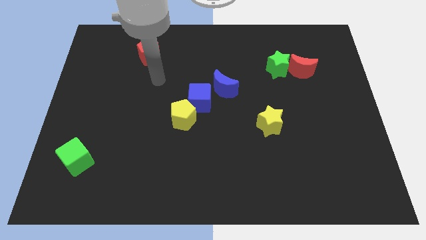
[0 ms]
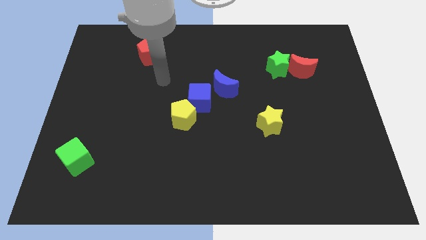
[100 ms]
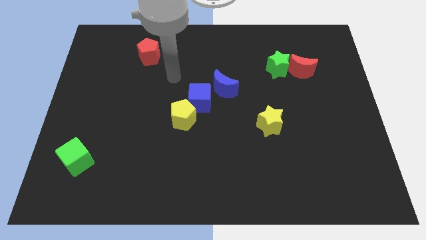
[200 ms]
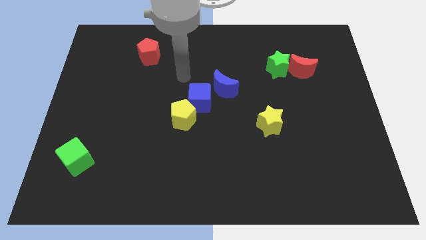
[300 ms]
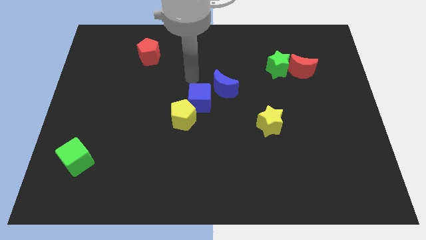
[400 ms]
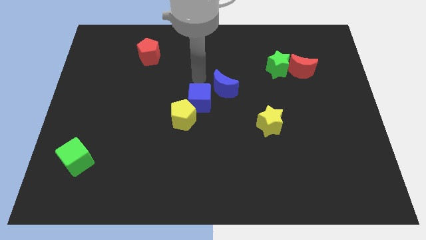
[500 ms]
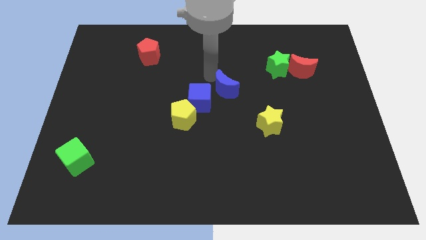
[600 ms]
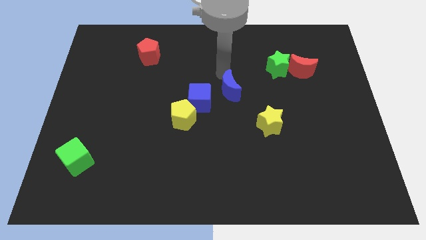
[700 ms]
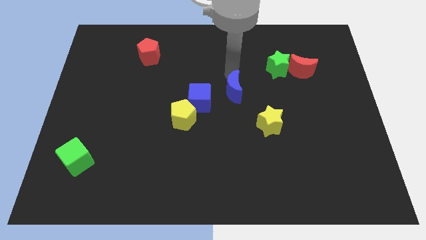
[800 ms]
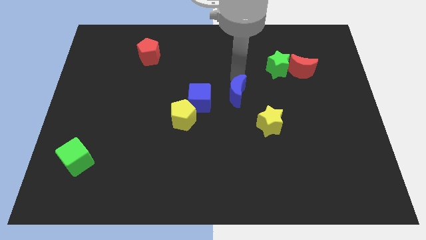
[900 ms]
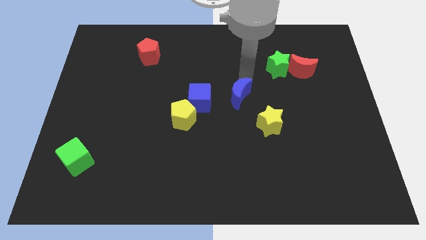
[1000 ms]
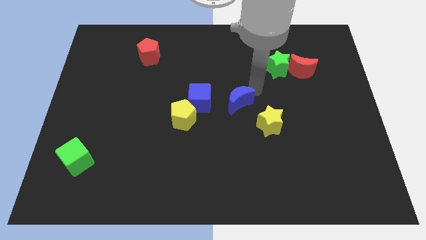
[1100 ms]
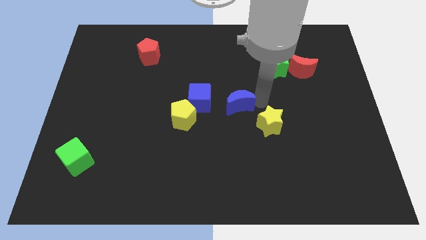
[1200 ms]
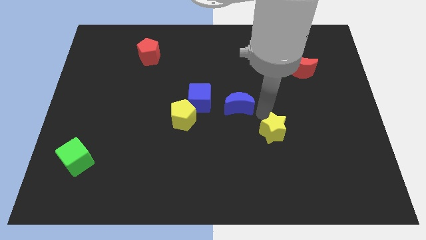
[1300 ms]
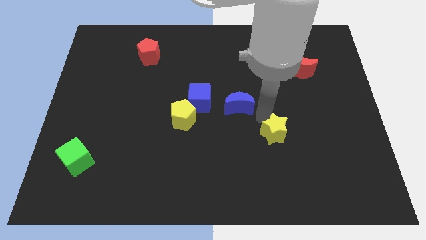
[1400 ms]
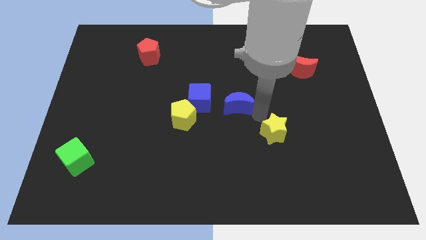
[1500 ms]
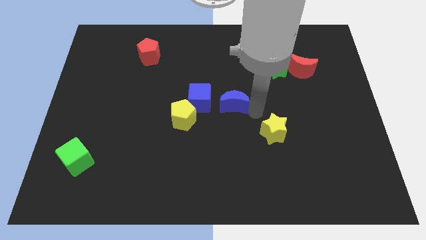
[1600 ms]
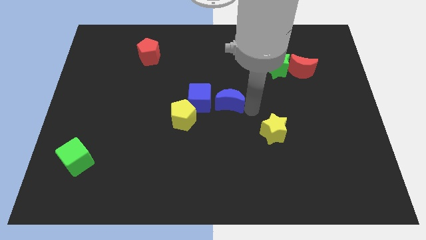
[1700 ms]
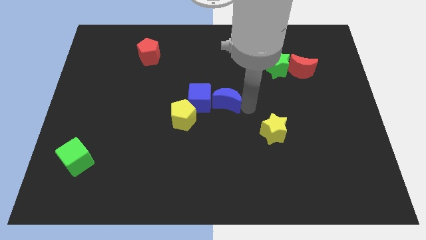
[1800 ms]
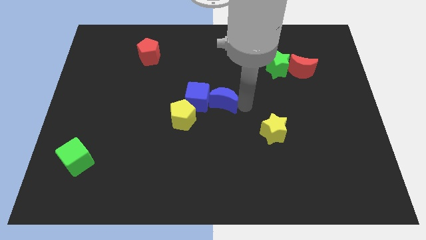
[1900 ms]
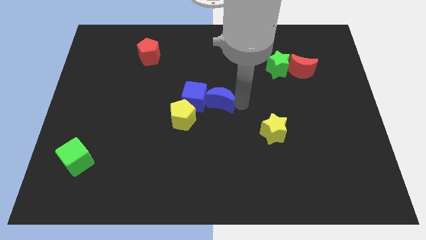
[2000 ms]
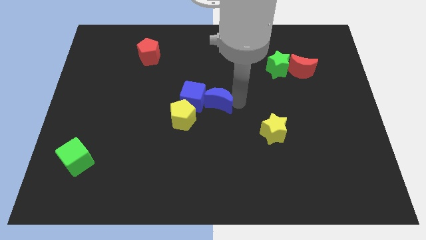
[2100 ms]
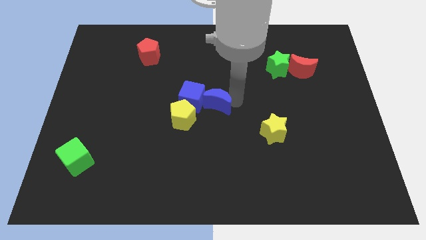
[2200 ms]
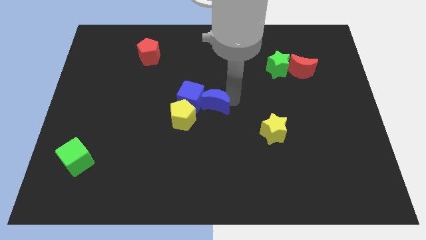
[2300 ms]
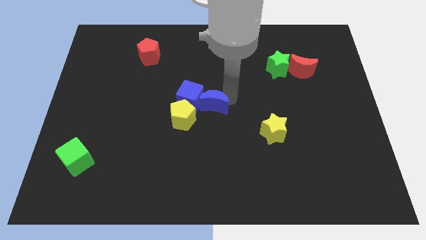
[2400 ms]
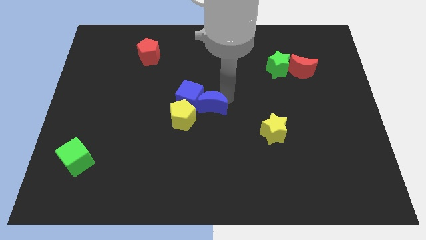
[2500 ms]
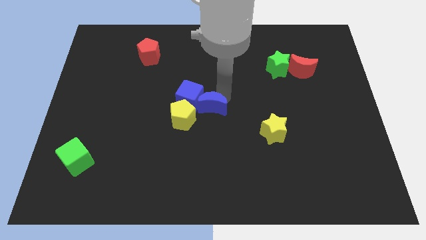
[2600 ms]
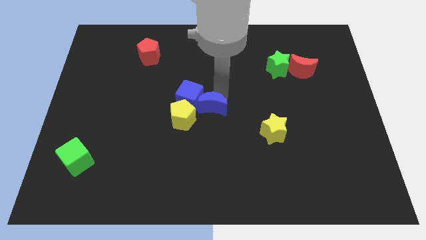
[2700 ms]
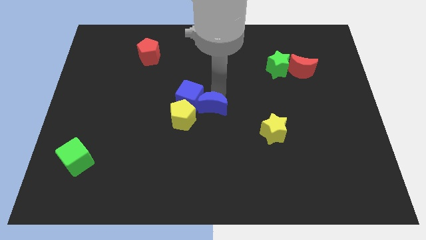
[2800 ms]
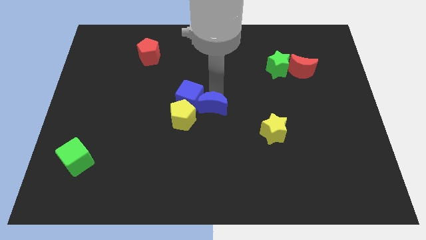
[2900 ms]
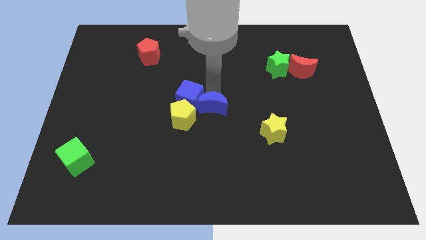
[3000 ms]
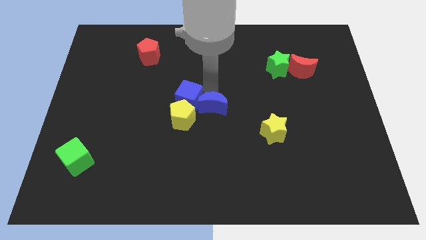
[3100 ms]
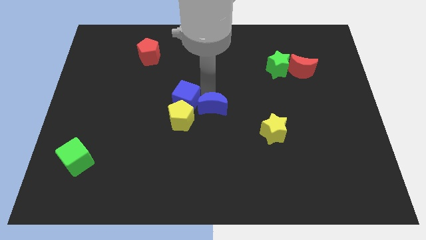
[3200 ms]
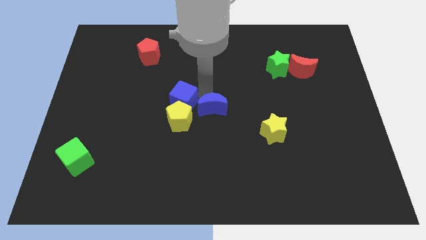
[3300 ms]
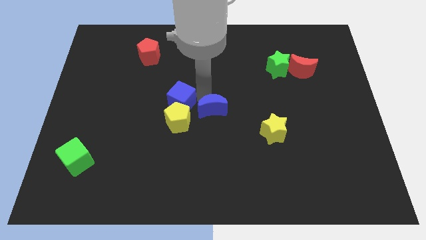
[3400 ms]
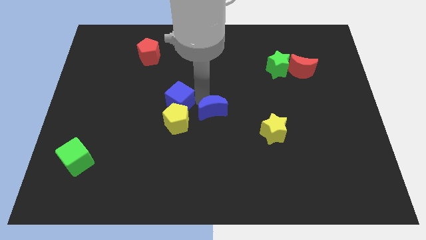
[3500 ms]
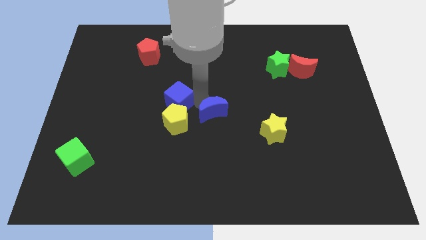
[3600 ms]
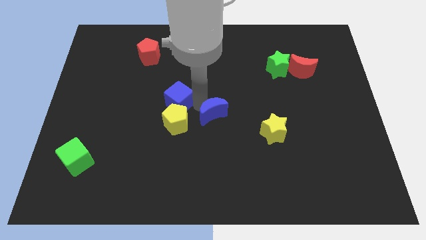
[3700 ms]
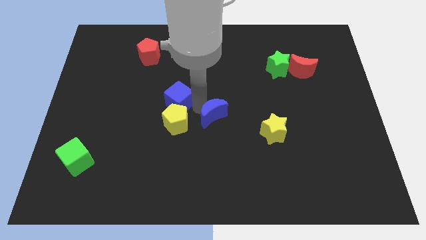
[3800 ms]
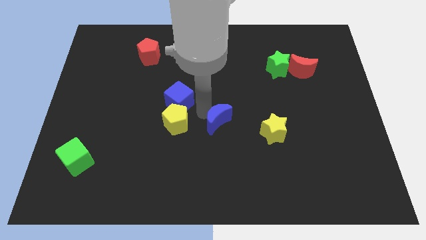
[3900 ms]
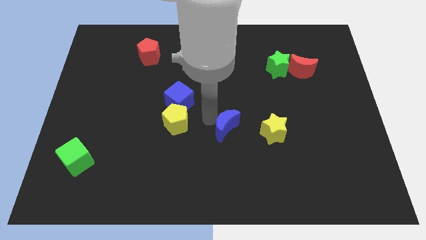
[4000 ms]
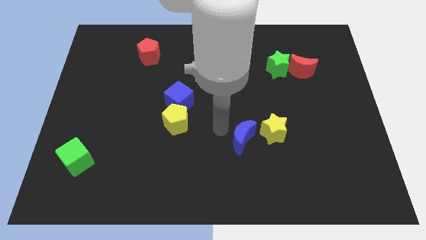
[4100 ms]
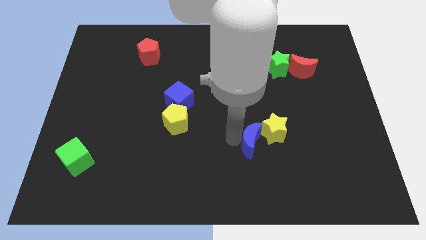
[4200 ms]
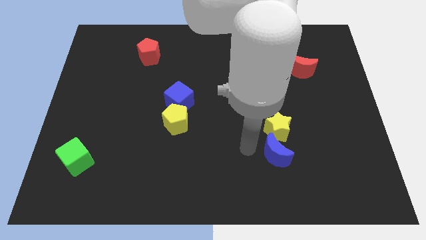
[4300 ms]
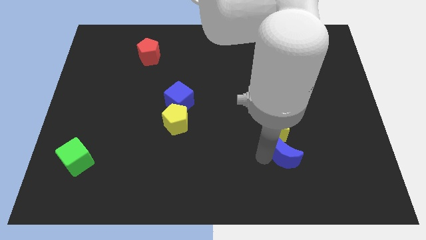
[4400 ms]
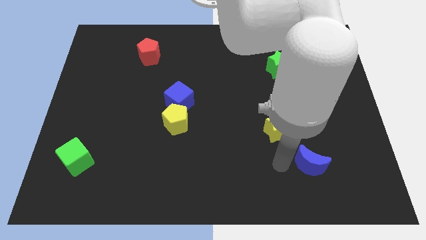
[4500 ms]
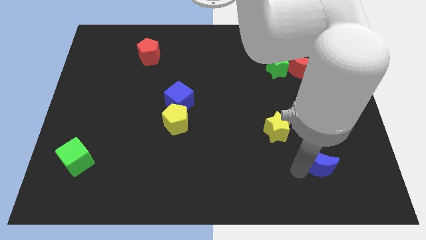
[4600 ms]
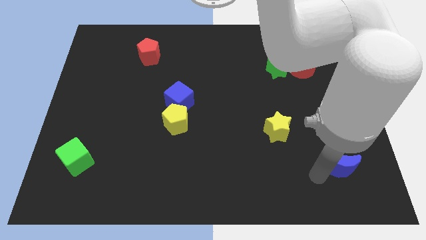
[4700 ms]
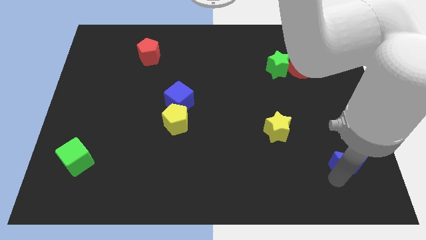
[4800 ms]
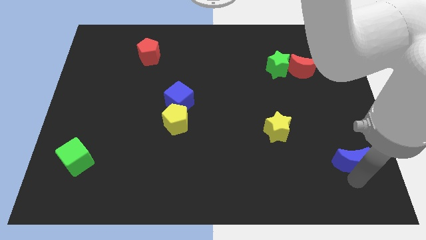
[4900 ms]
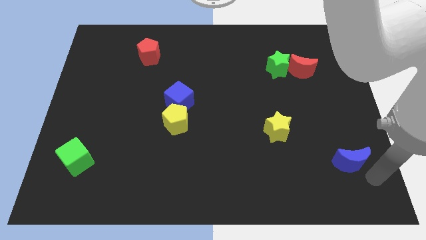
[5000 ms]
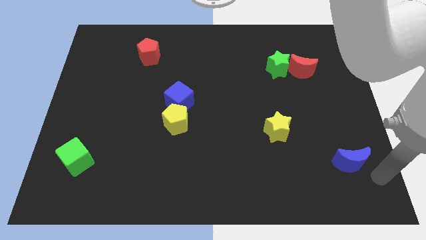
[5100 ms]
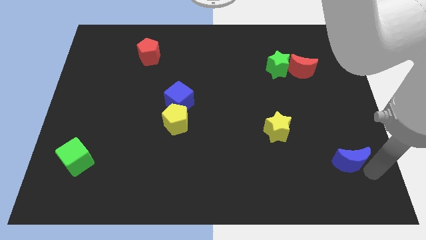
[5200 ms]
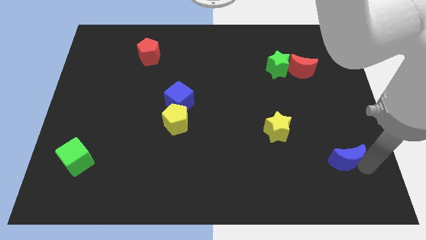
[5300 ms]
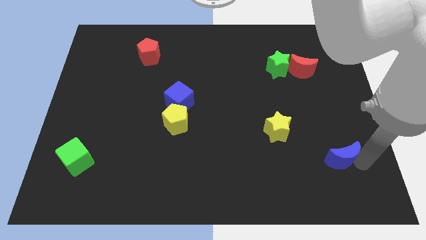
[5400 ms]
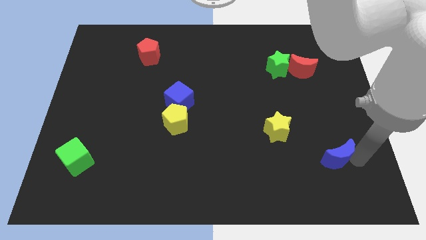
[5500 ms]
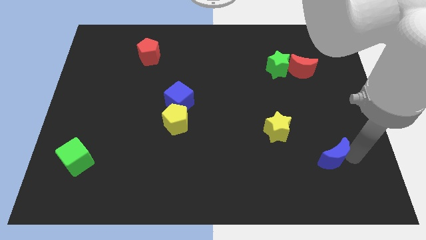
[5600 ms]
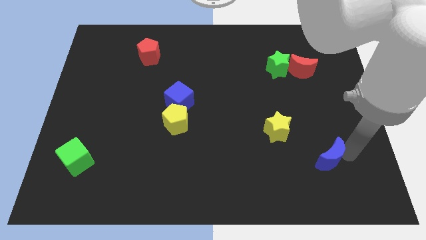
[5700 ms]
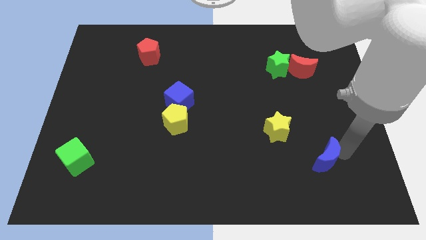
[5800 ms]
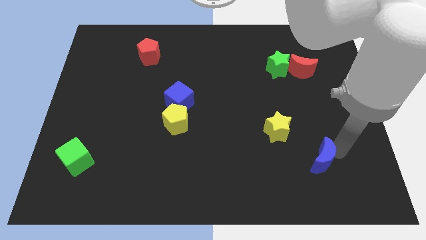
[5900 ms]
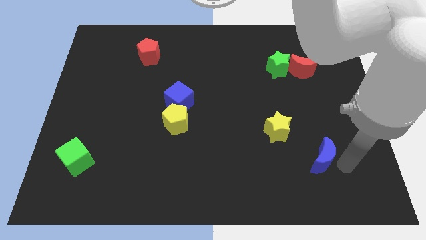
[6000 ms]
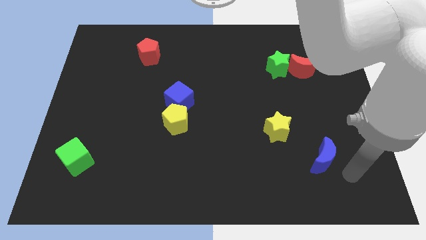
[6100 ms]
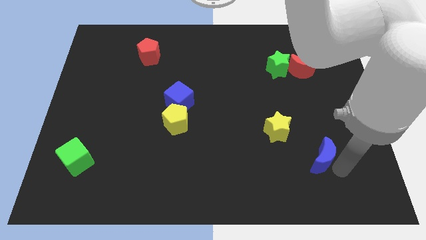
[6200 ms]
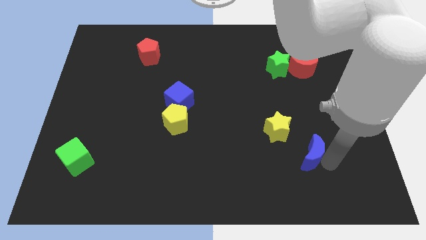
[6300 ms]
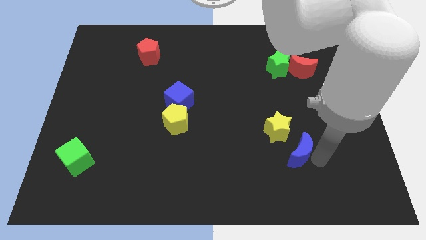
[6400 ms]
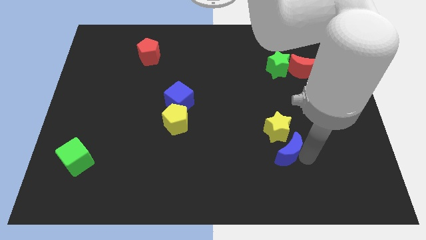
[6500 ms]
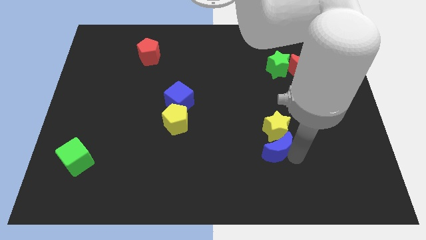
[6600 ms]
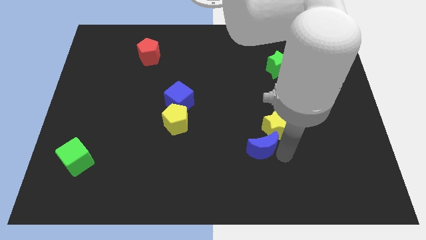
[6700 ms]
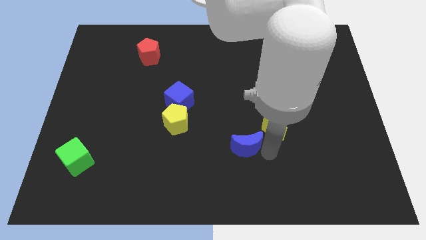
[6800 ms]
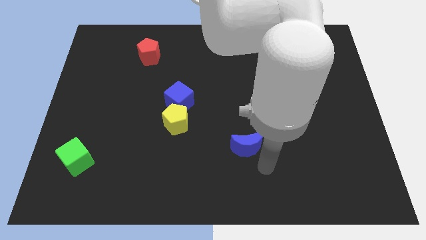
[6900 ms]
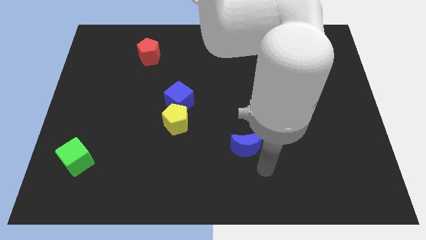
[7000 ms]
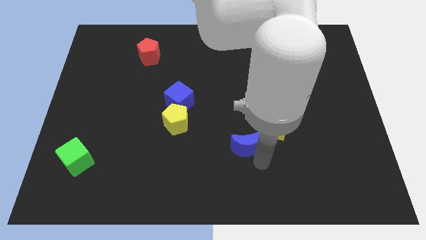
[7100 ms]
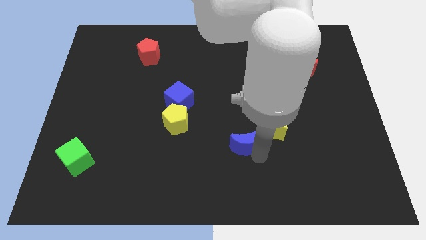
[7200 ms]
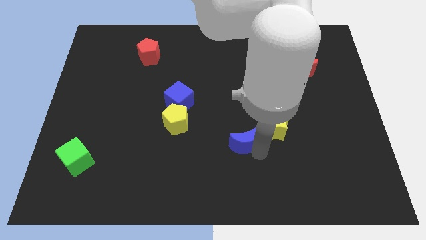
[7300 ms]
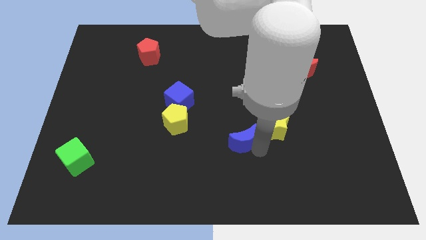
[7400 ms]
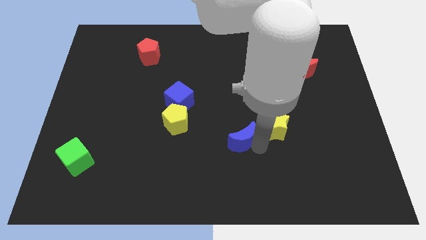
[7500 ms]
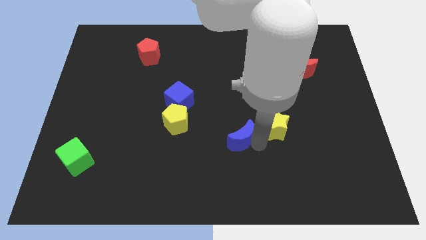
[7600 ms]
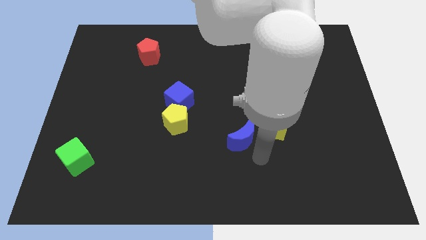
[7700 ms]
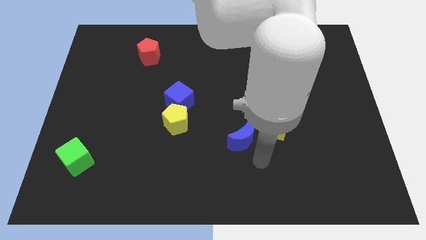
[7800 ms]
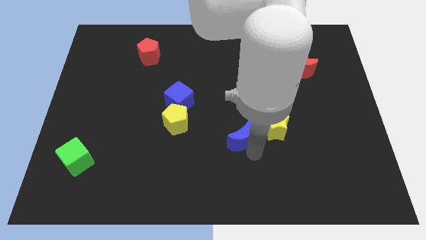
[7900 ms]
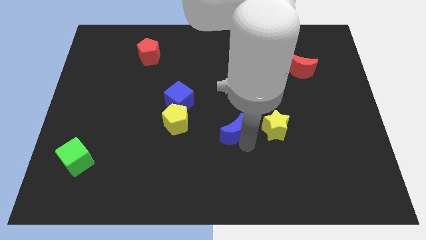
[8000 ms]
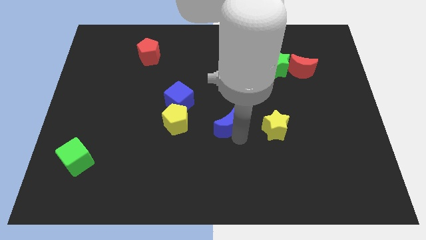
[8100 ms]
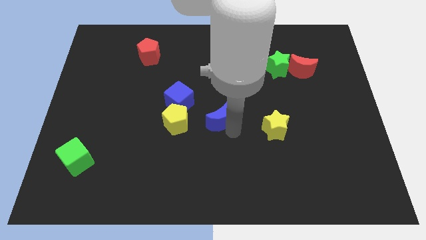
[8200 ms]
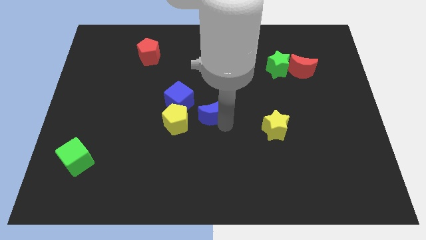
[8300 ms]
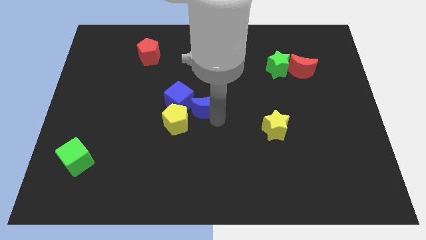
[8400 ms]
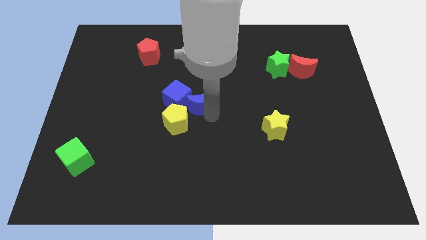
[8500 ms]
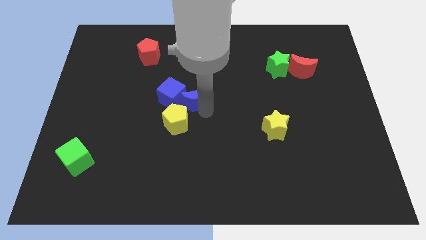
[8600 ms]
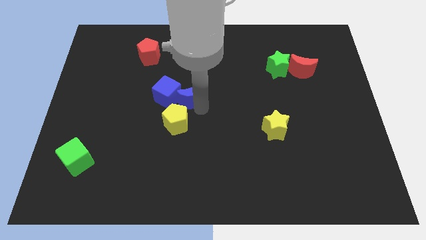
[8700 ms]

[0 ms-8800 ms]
push the blue moon left a bit
